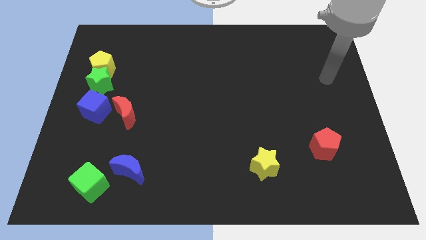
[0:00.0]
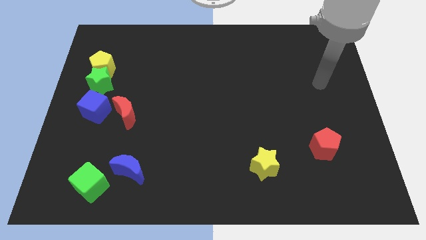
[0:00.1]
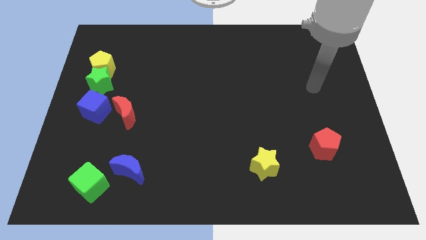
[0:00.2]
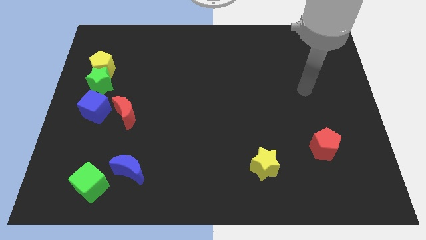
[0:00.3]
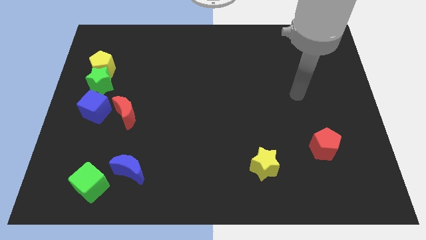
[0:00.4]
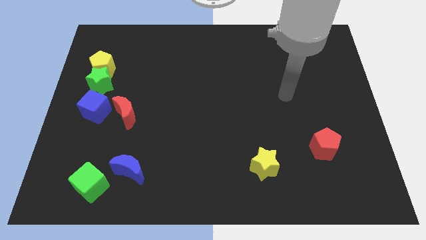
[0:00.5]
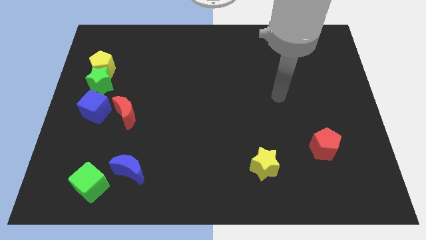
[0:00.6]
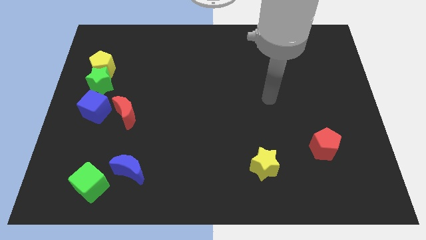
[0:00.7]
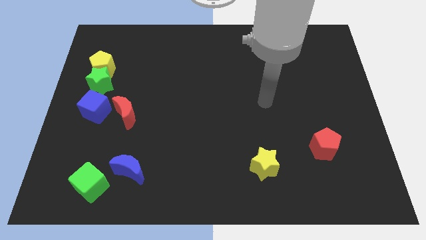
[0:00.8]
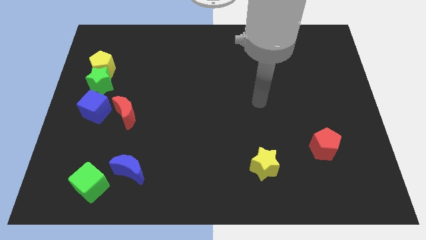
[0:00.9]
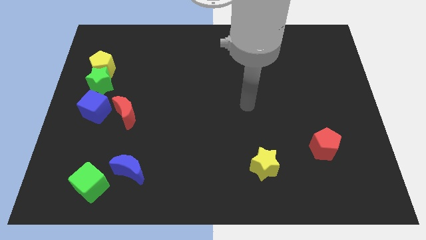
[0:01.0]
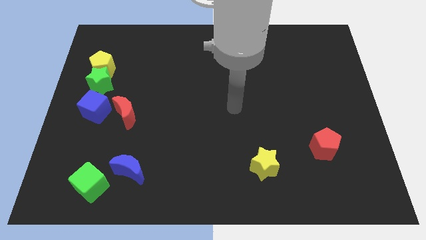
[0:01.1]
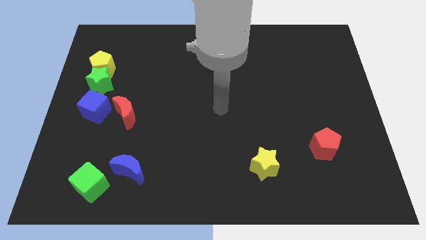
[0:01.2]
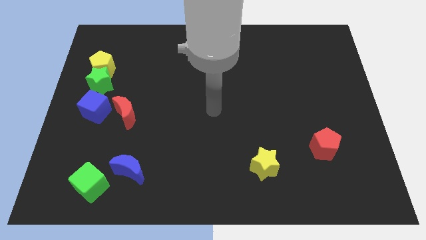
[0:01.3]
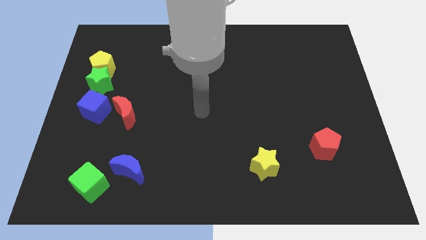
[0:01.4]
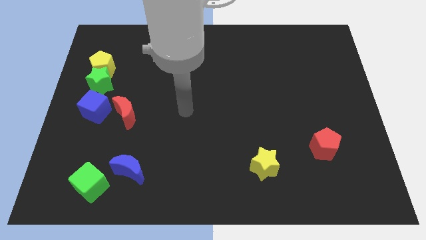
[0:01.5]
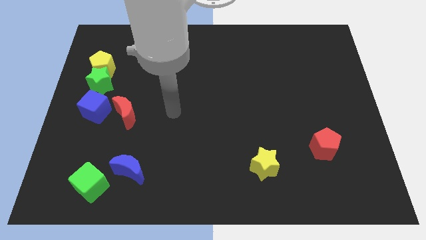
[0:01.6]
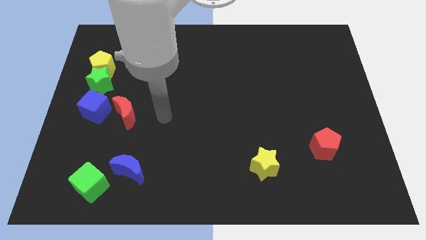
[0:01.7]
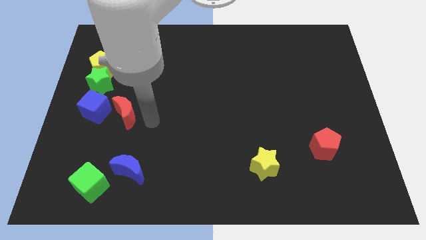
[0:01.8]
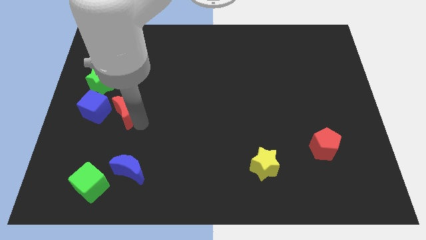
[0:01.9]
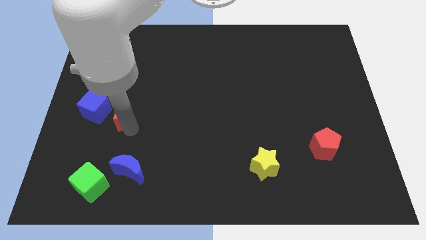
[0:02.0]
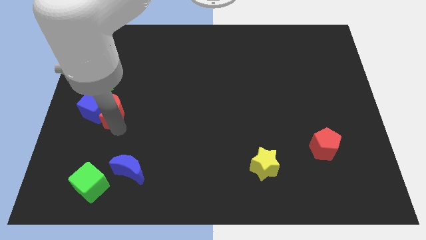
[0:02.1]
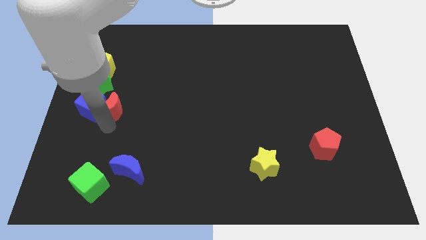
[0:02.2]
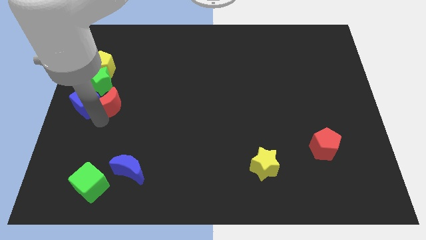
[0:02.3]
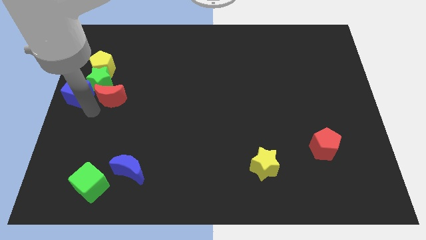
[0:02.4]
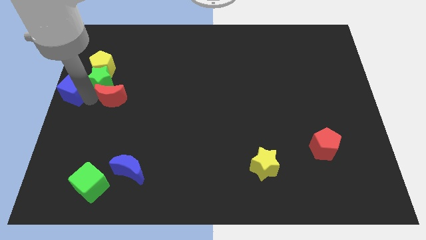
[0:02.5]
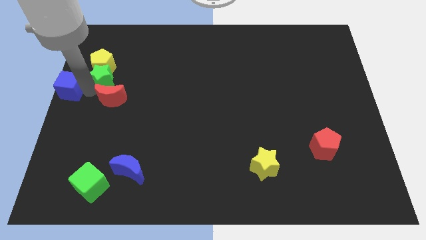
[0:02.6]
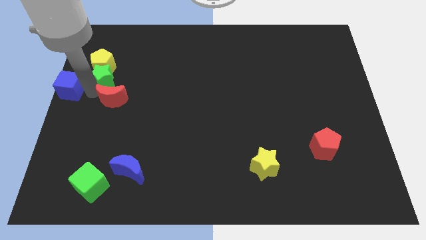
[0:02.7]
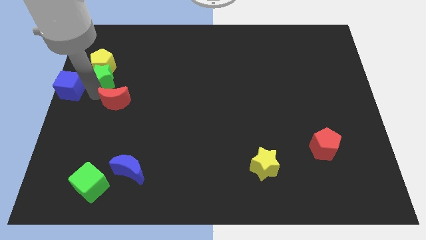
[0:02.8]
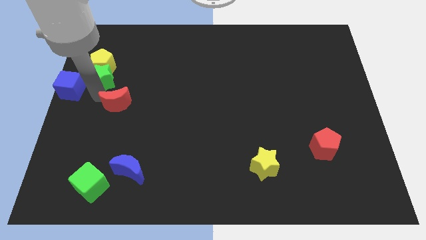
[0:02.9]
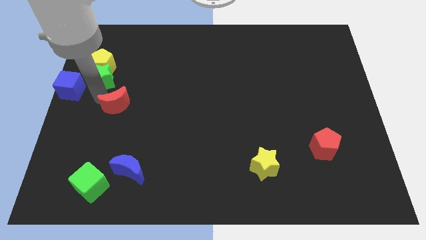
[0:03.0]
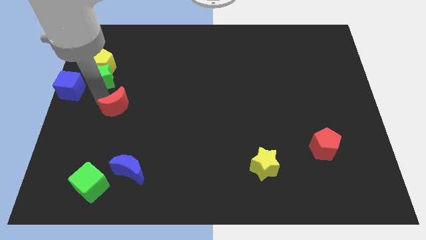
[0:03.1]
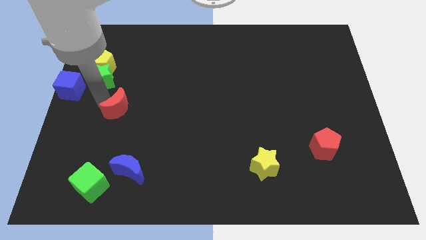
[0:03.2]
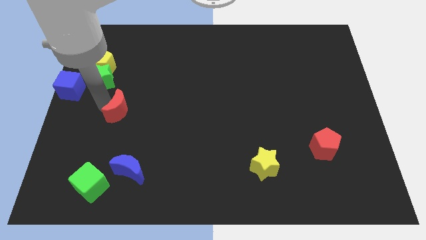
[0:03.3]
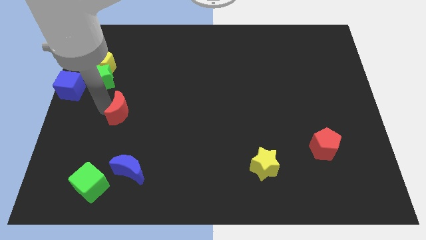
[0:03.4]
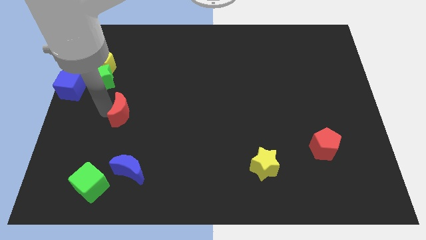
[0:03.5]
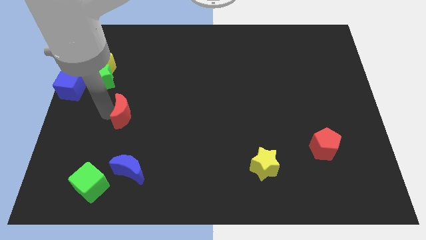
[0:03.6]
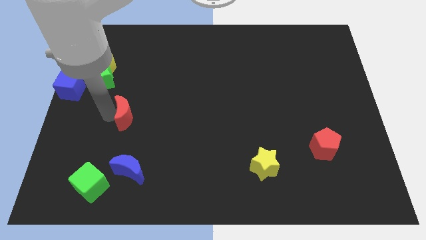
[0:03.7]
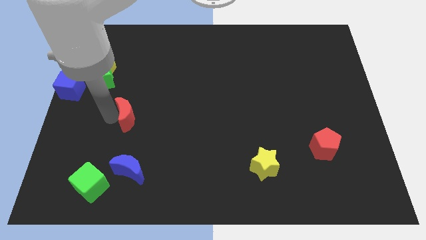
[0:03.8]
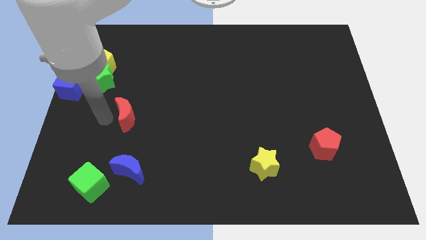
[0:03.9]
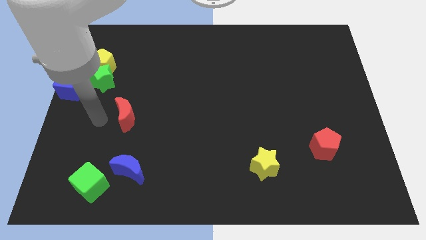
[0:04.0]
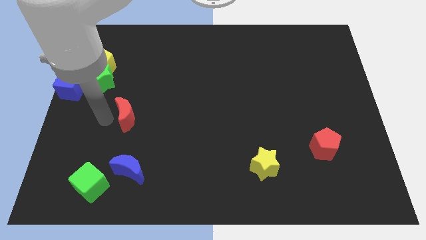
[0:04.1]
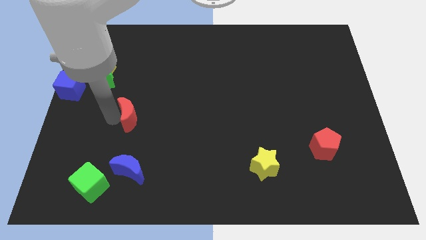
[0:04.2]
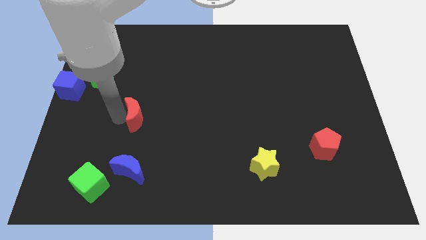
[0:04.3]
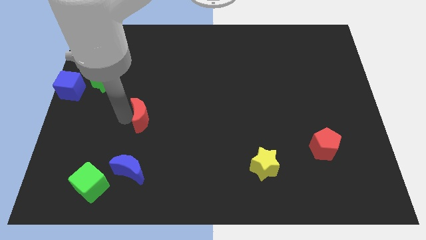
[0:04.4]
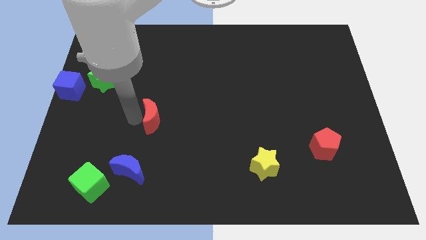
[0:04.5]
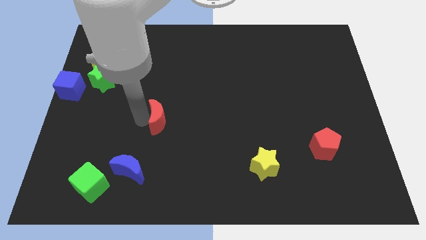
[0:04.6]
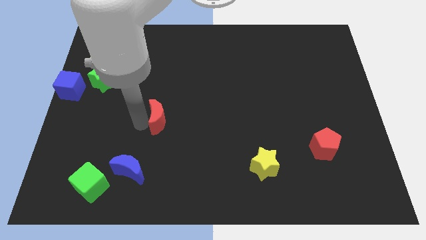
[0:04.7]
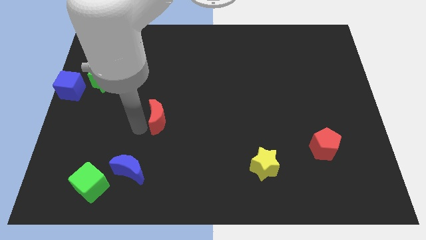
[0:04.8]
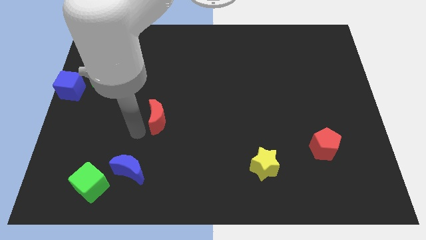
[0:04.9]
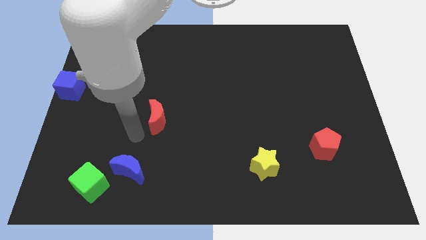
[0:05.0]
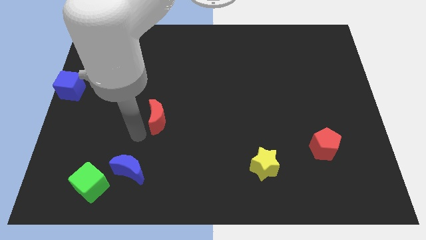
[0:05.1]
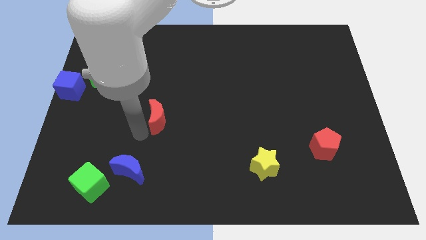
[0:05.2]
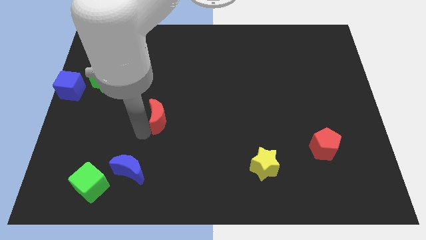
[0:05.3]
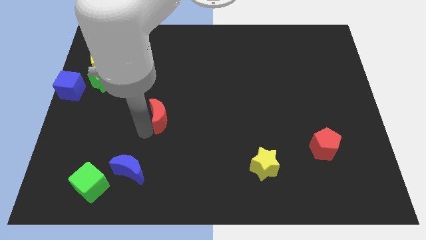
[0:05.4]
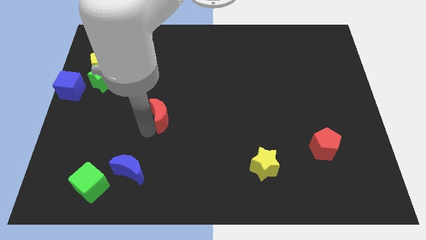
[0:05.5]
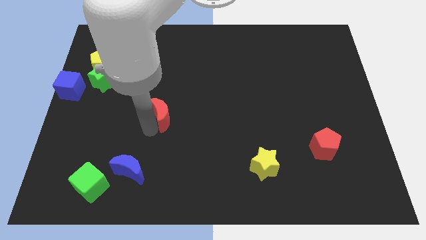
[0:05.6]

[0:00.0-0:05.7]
push the red moon to the middle

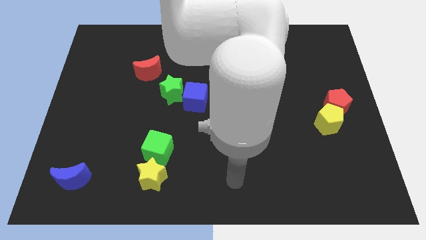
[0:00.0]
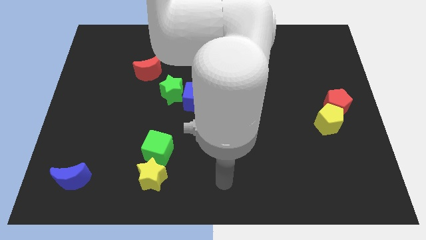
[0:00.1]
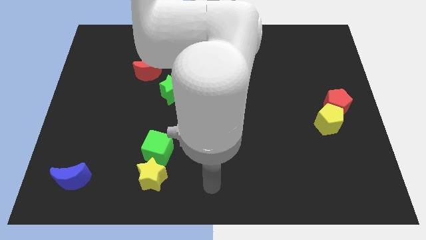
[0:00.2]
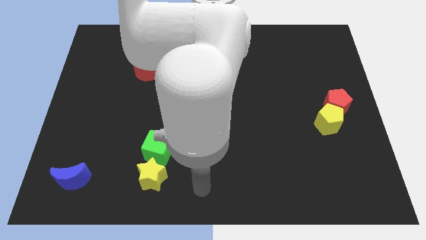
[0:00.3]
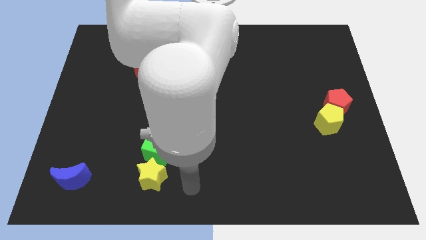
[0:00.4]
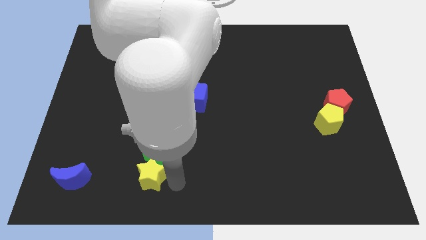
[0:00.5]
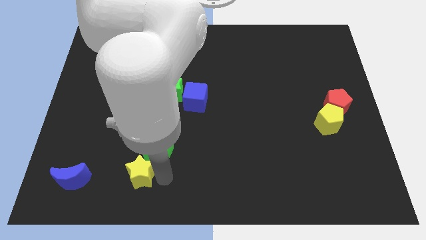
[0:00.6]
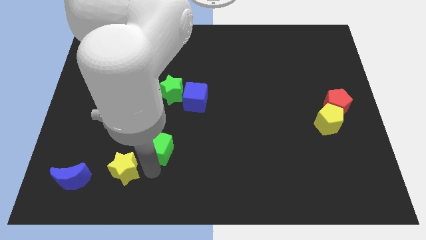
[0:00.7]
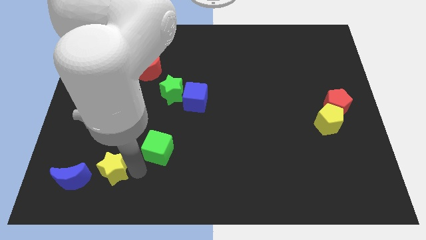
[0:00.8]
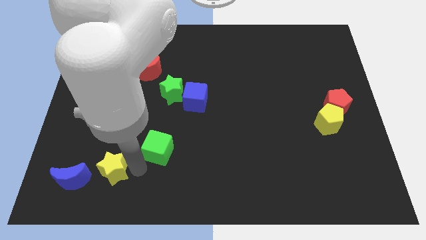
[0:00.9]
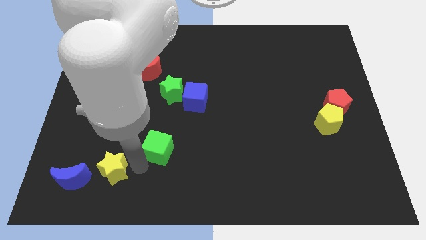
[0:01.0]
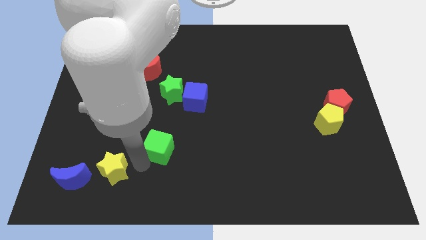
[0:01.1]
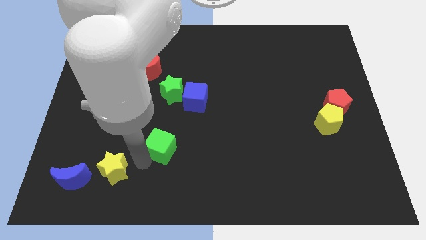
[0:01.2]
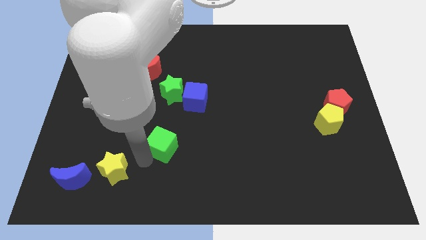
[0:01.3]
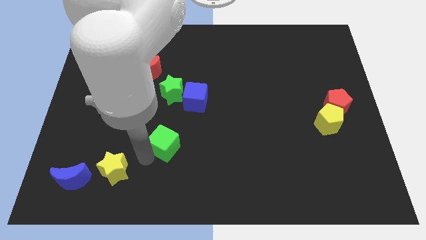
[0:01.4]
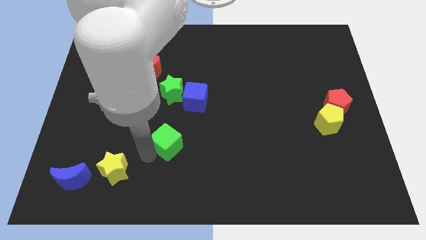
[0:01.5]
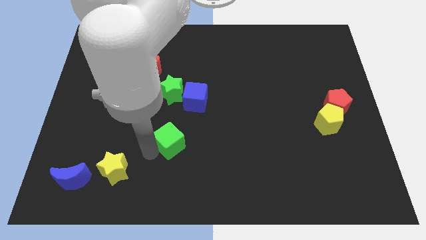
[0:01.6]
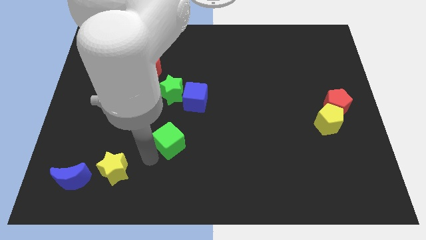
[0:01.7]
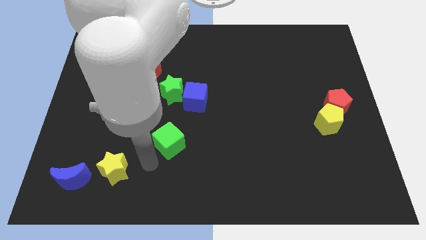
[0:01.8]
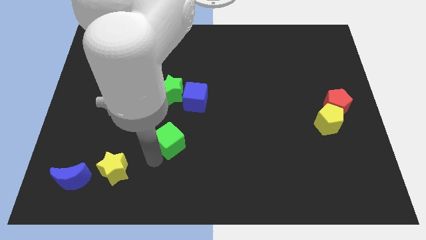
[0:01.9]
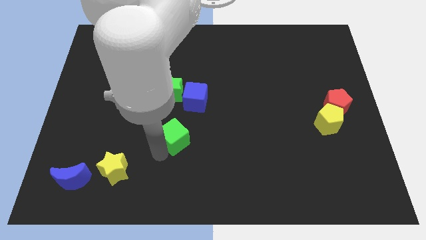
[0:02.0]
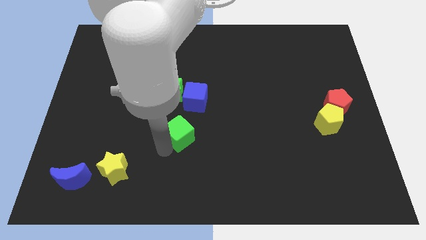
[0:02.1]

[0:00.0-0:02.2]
slide the green cube to the middle of the board
